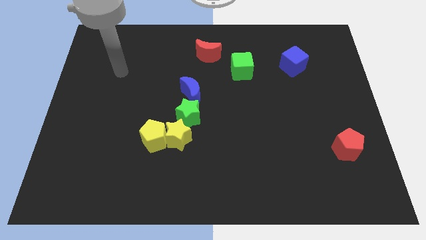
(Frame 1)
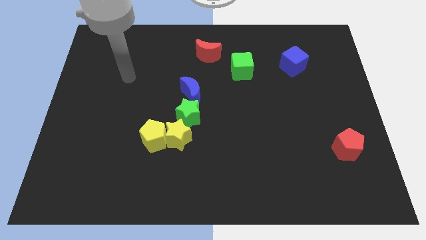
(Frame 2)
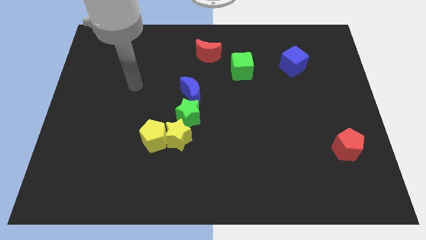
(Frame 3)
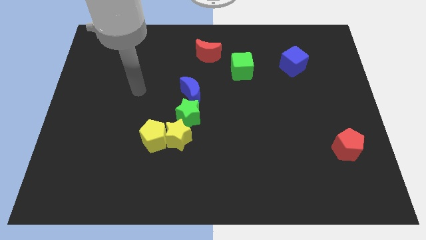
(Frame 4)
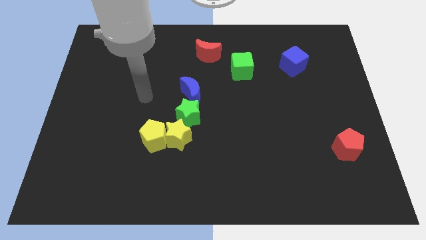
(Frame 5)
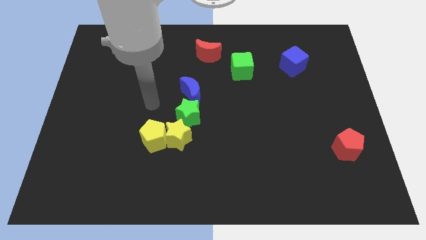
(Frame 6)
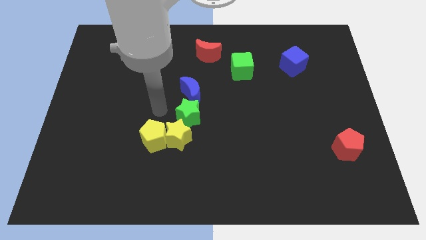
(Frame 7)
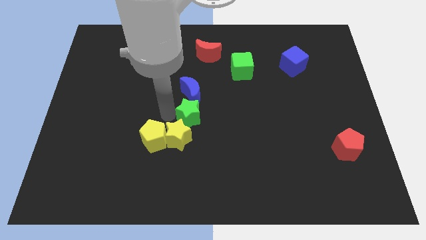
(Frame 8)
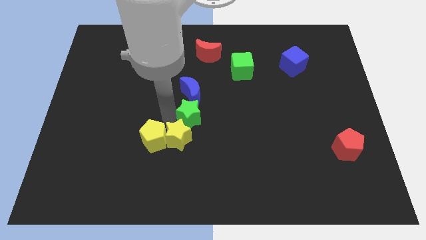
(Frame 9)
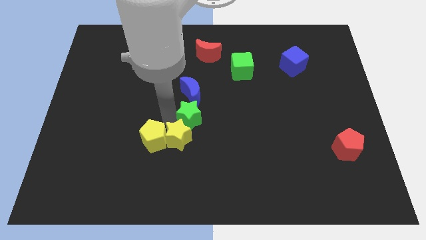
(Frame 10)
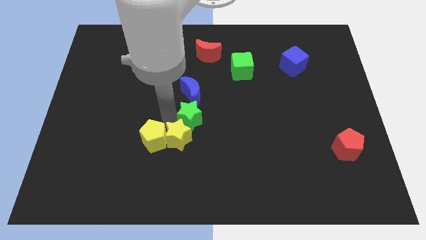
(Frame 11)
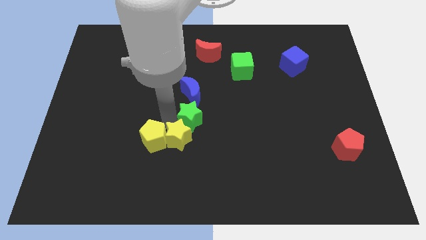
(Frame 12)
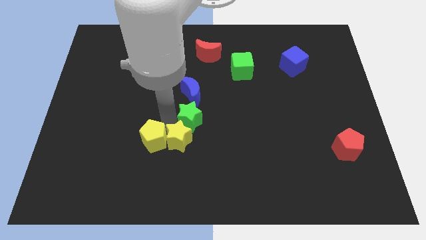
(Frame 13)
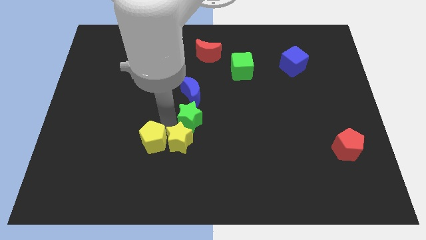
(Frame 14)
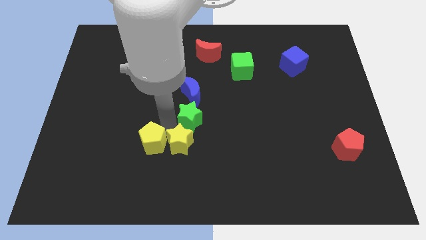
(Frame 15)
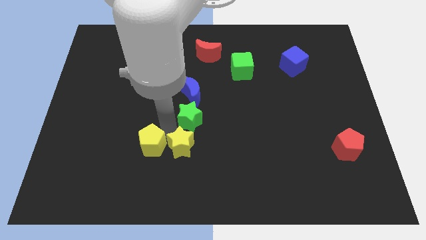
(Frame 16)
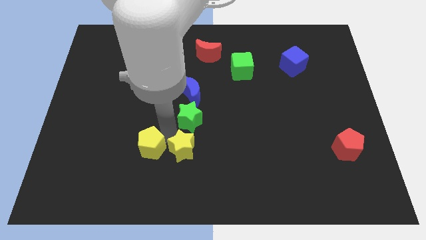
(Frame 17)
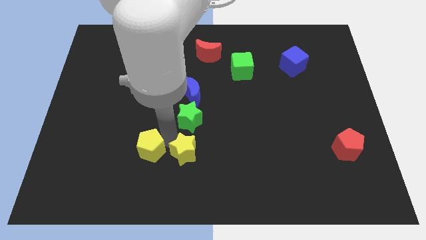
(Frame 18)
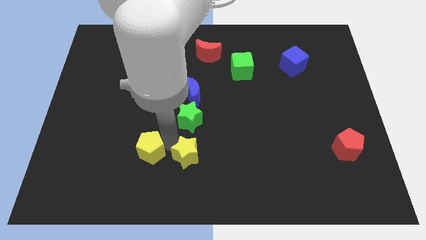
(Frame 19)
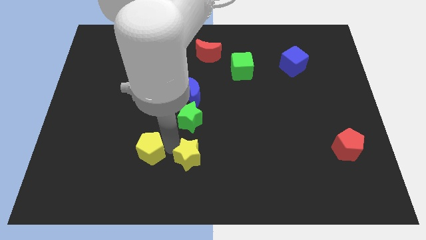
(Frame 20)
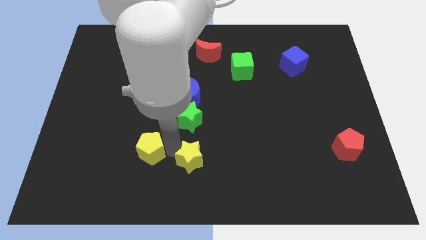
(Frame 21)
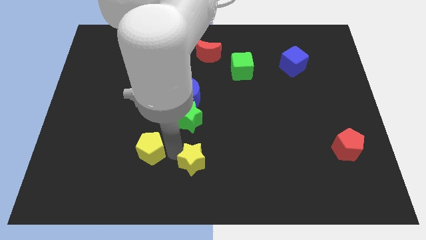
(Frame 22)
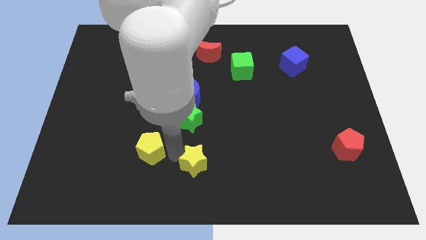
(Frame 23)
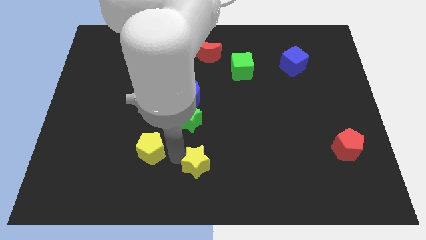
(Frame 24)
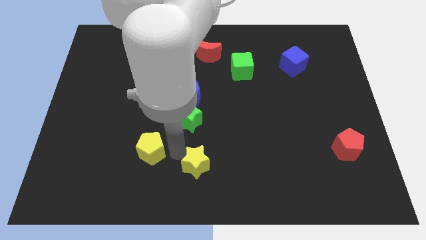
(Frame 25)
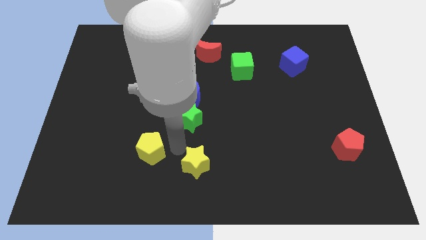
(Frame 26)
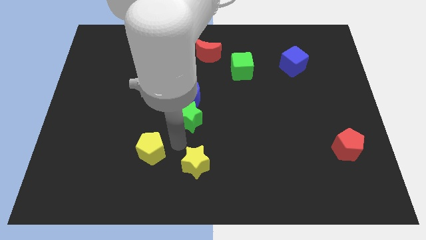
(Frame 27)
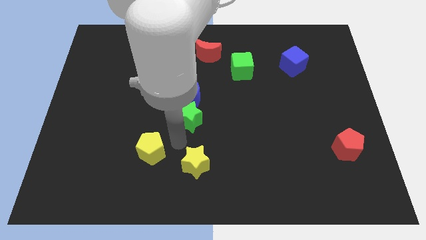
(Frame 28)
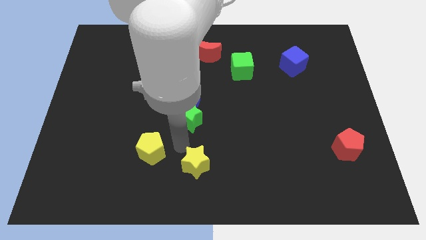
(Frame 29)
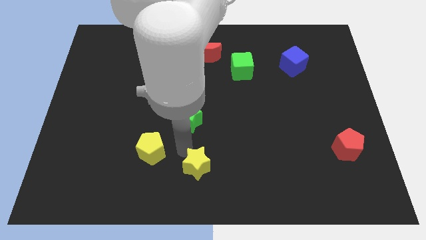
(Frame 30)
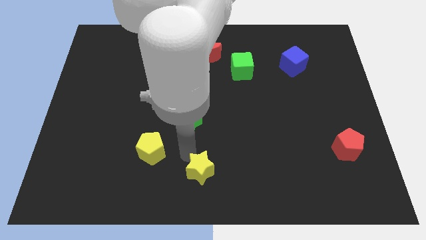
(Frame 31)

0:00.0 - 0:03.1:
move the yellow star away from the yellow pentagon and green star

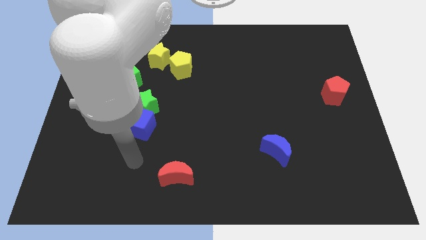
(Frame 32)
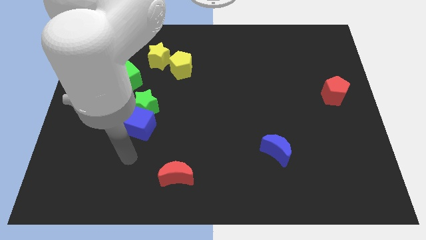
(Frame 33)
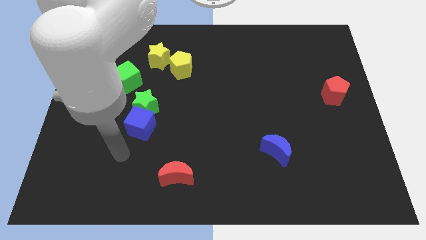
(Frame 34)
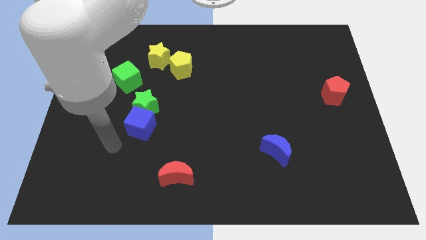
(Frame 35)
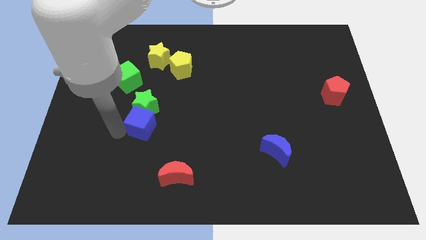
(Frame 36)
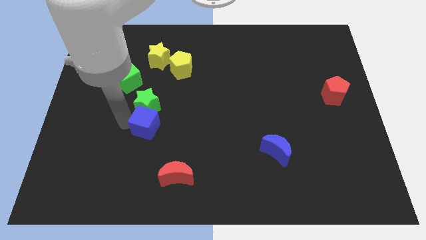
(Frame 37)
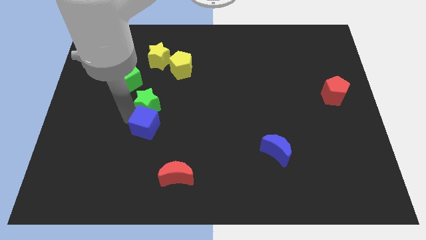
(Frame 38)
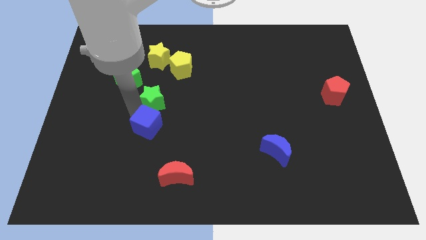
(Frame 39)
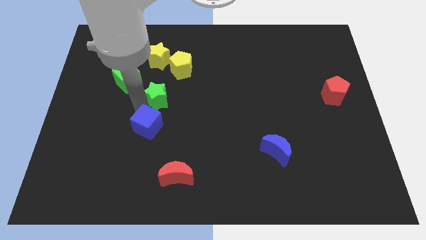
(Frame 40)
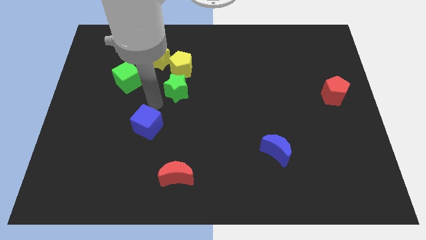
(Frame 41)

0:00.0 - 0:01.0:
move the blue cube away from the green star

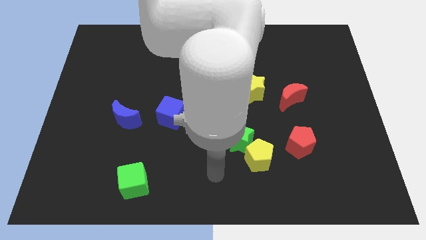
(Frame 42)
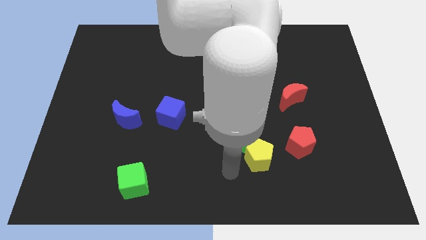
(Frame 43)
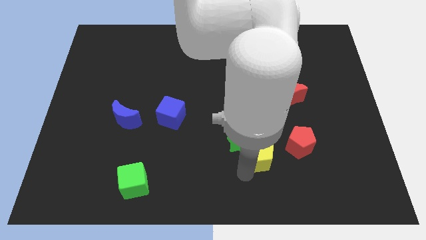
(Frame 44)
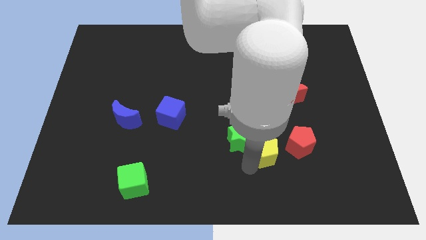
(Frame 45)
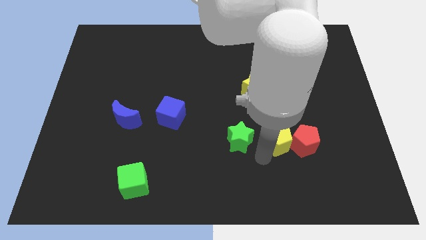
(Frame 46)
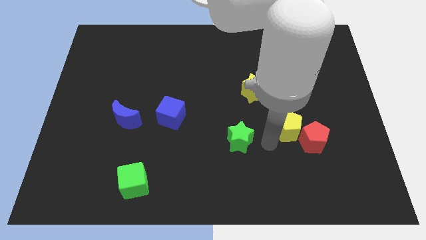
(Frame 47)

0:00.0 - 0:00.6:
separate the green star from the yellow pentagon

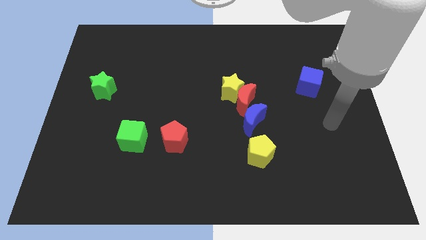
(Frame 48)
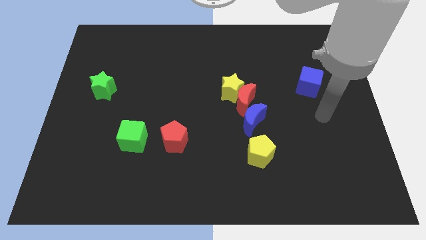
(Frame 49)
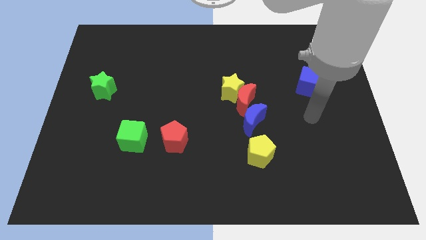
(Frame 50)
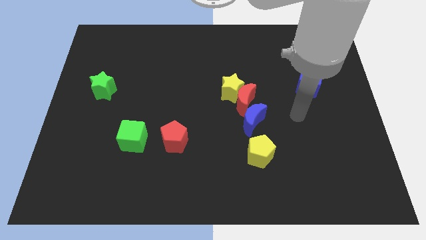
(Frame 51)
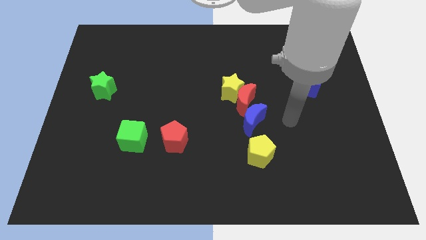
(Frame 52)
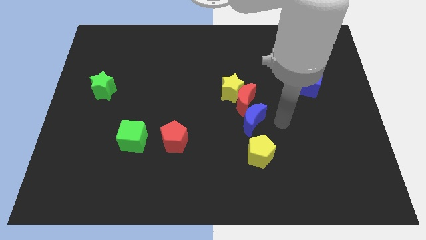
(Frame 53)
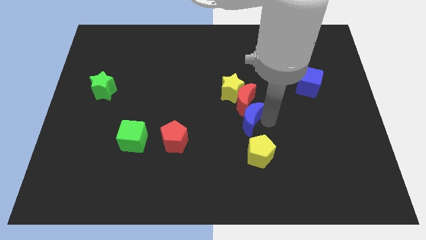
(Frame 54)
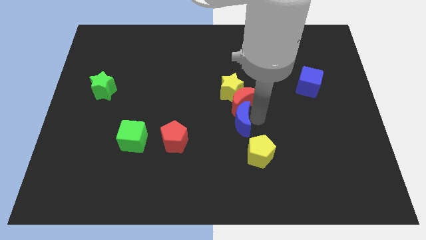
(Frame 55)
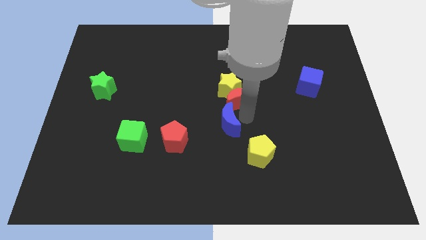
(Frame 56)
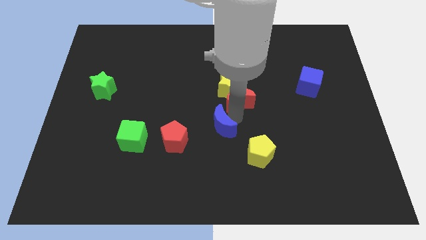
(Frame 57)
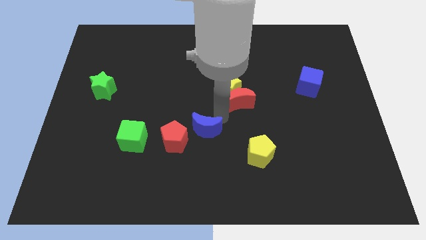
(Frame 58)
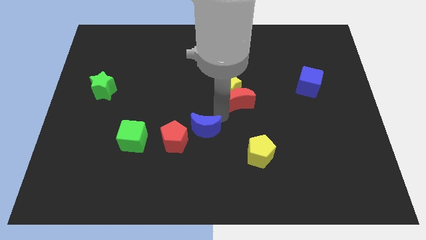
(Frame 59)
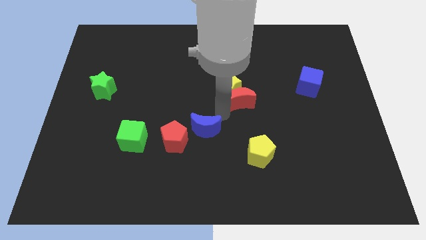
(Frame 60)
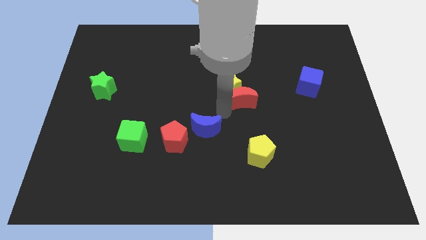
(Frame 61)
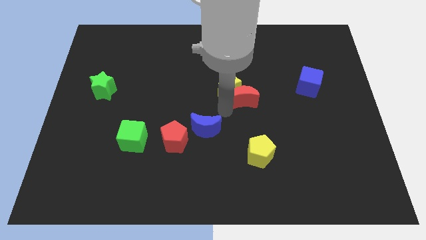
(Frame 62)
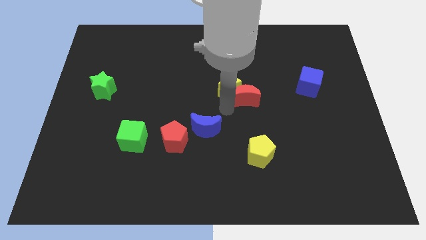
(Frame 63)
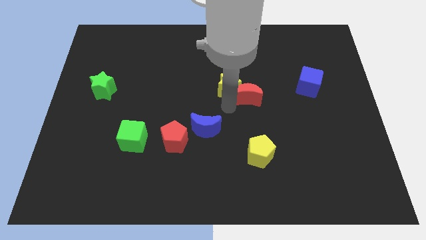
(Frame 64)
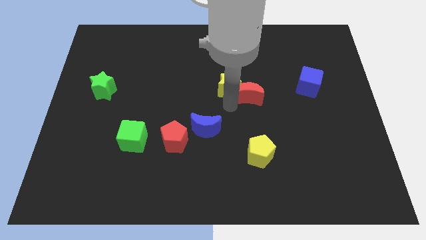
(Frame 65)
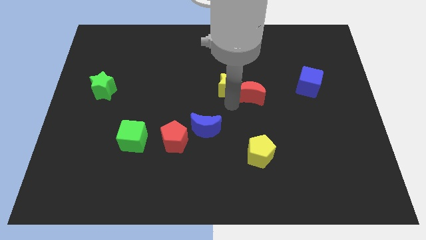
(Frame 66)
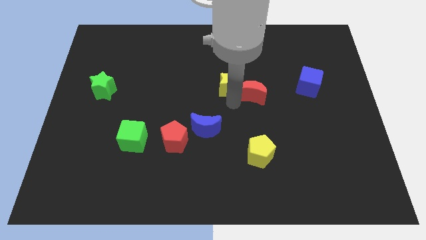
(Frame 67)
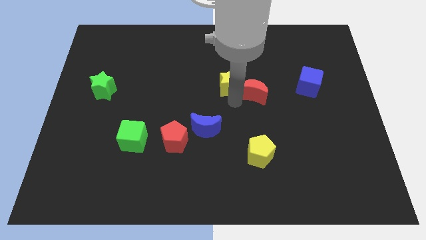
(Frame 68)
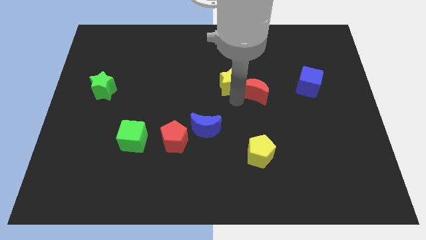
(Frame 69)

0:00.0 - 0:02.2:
move the red moon away from the yellow star and blue moon

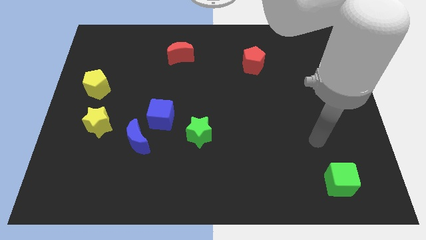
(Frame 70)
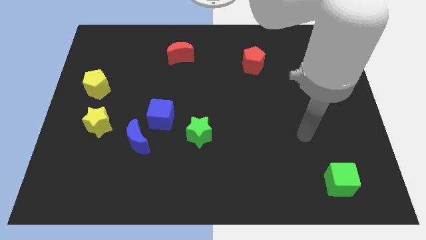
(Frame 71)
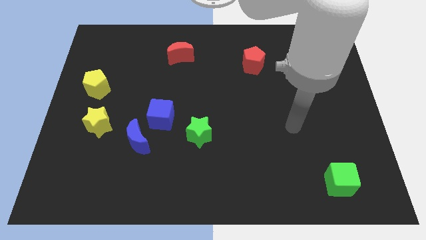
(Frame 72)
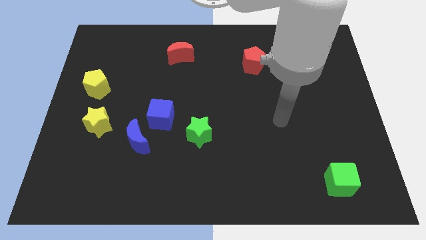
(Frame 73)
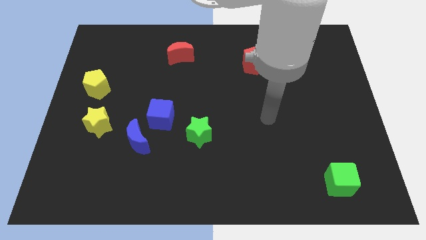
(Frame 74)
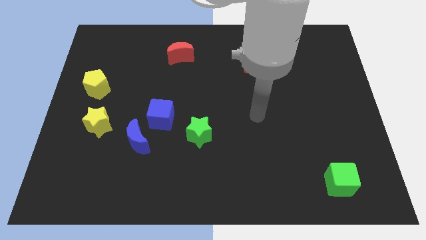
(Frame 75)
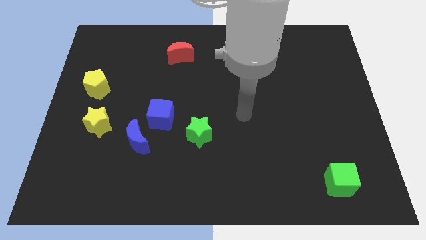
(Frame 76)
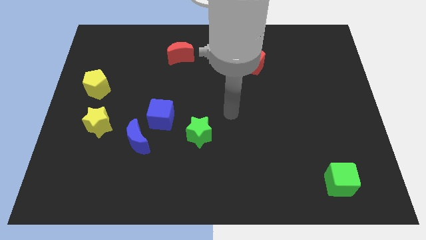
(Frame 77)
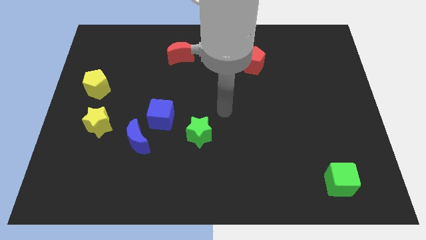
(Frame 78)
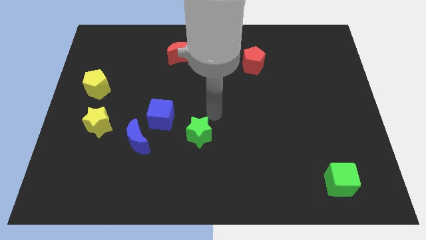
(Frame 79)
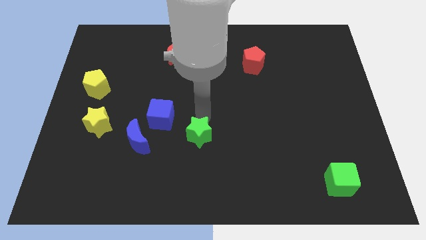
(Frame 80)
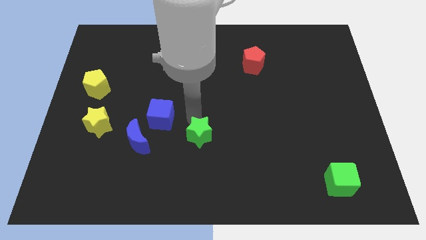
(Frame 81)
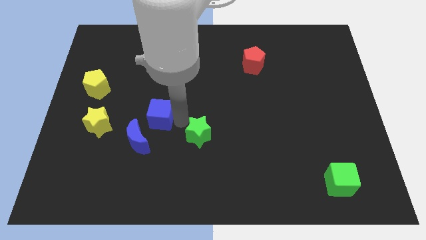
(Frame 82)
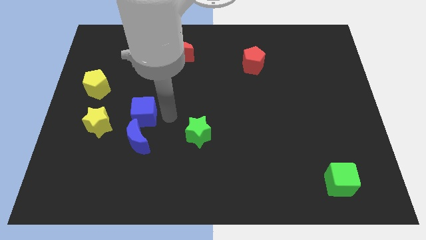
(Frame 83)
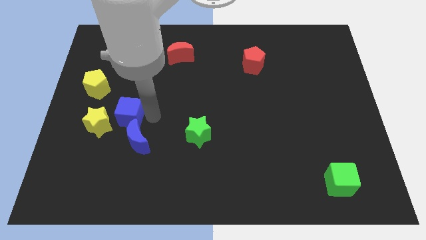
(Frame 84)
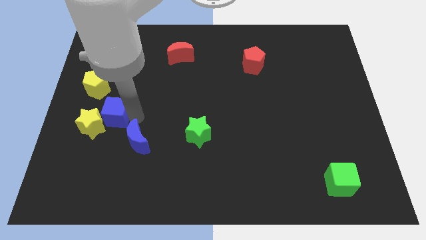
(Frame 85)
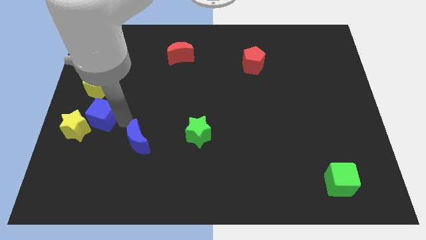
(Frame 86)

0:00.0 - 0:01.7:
move the blue moon away from the blue cube

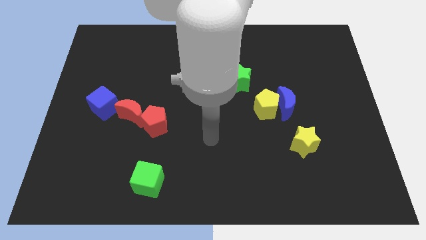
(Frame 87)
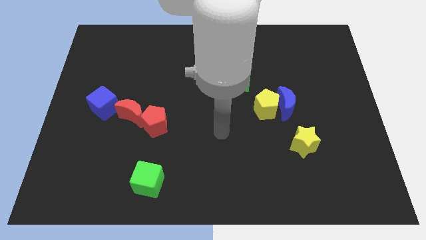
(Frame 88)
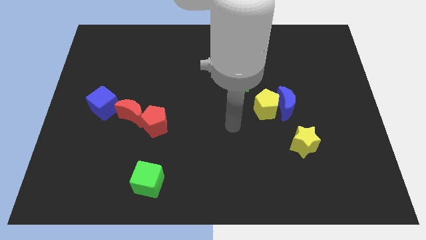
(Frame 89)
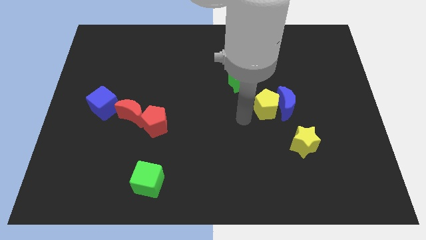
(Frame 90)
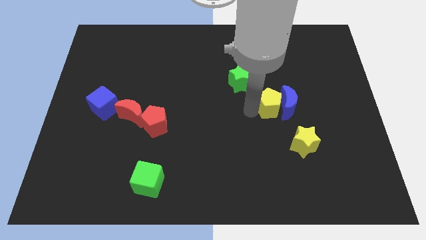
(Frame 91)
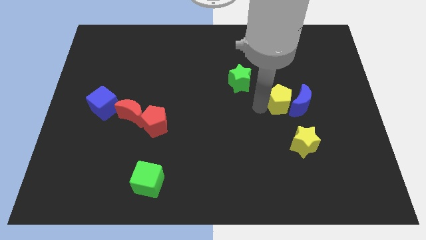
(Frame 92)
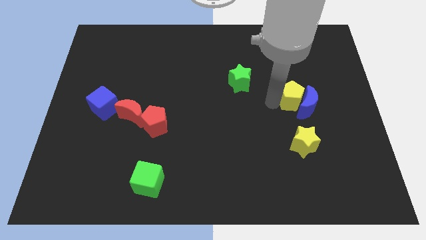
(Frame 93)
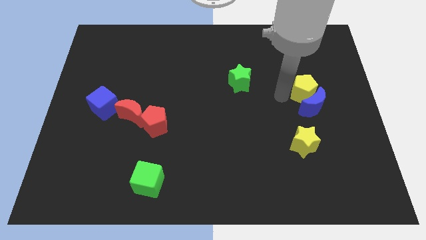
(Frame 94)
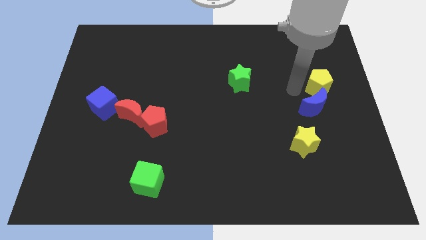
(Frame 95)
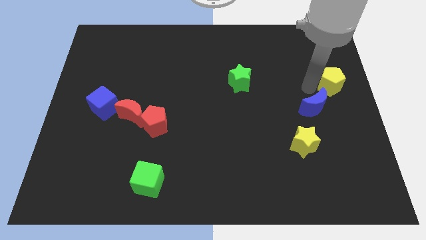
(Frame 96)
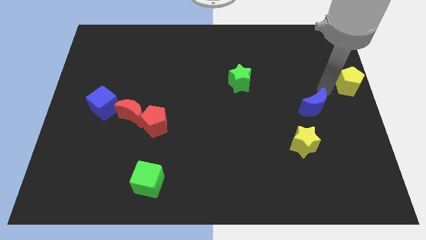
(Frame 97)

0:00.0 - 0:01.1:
separate the blue moon from the yellow pentagon
